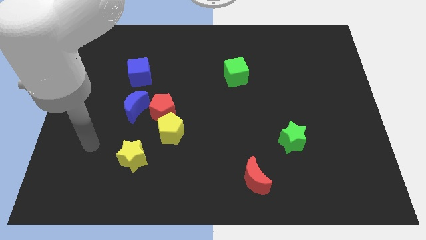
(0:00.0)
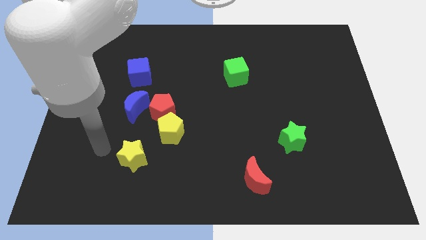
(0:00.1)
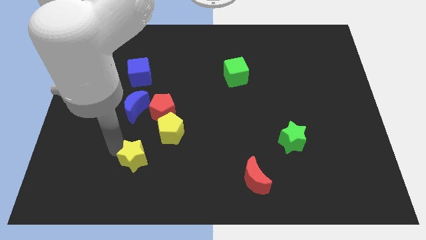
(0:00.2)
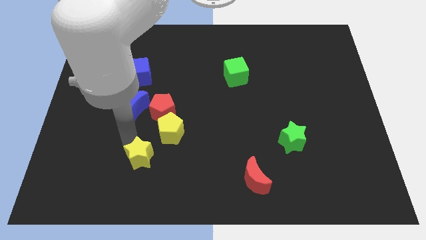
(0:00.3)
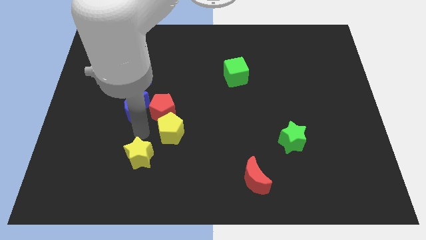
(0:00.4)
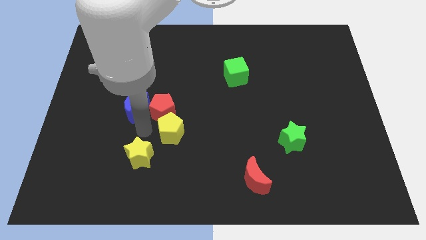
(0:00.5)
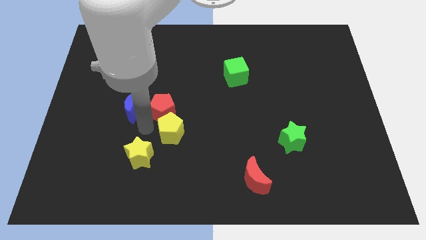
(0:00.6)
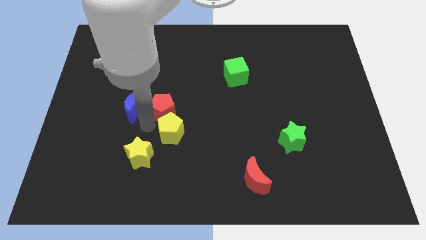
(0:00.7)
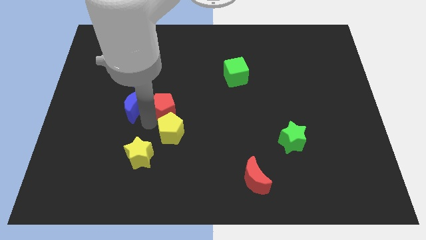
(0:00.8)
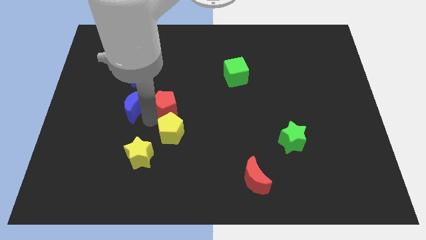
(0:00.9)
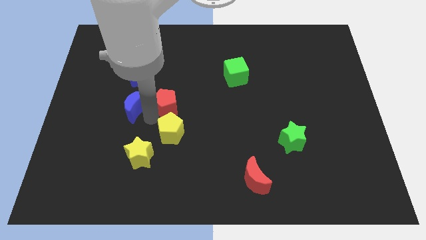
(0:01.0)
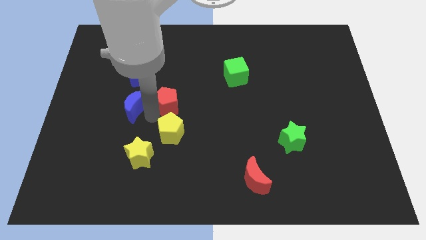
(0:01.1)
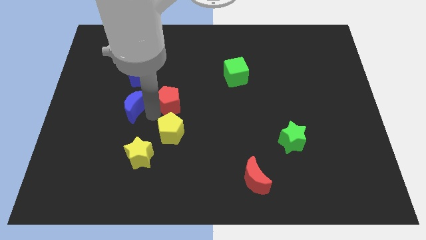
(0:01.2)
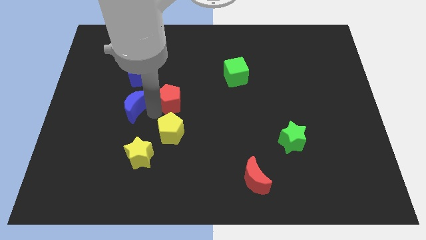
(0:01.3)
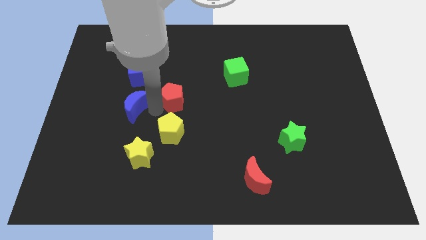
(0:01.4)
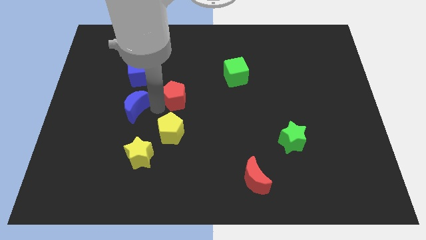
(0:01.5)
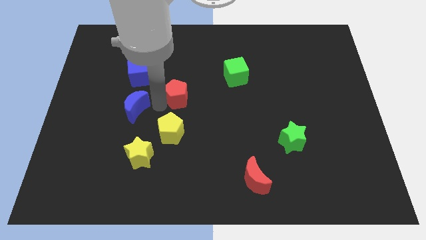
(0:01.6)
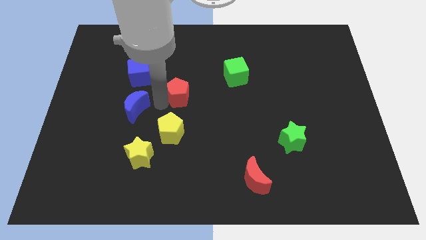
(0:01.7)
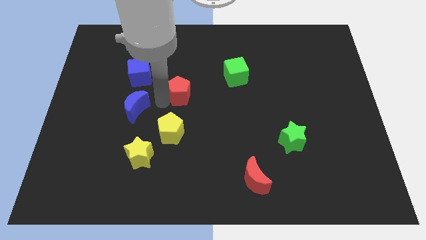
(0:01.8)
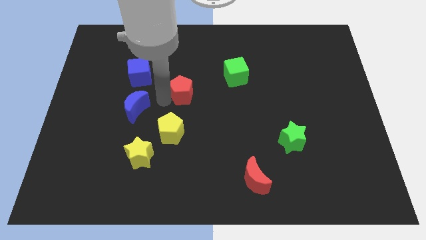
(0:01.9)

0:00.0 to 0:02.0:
move the red pentagon away from the yellow pentagon and blue moon

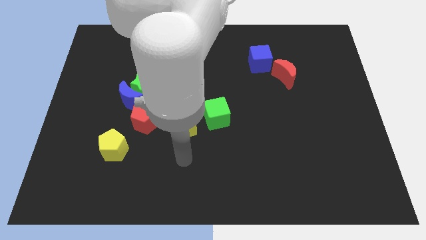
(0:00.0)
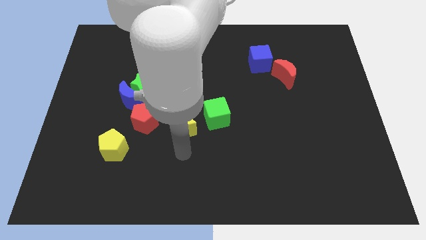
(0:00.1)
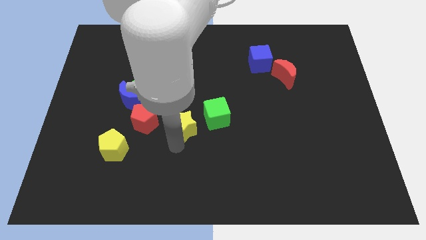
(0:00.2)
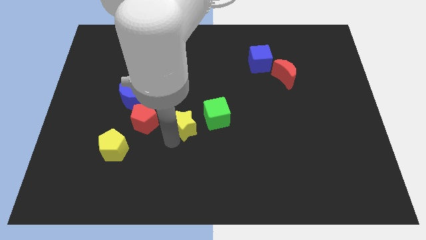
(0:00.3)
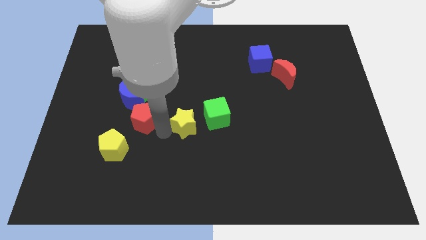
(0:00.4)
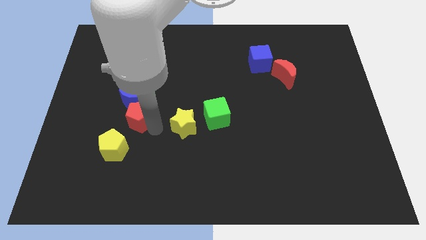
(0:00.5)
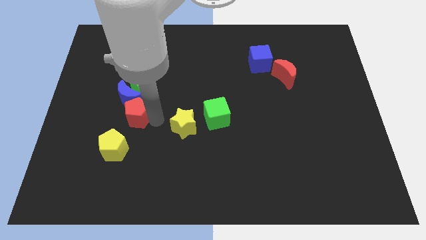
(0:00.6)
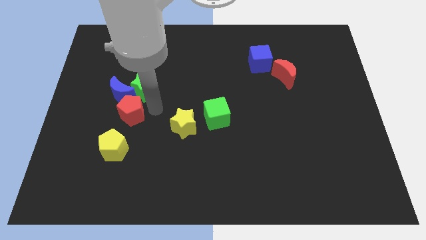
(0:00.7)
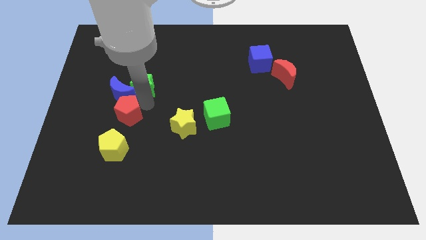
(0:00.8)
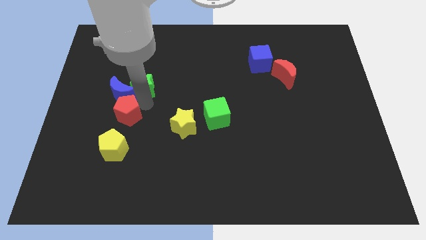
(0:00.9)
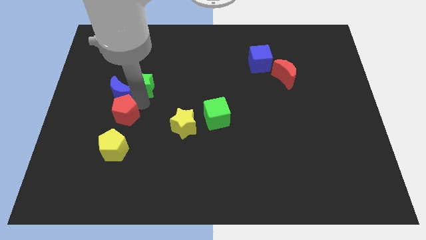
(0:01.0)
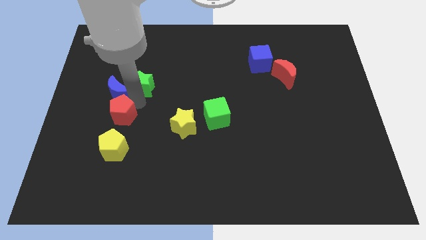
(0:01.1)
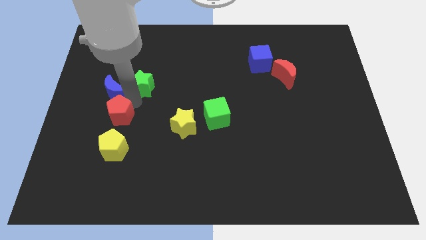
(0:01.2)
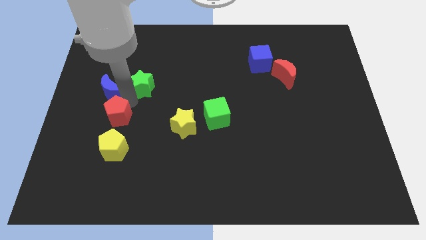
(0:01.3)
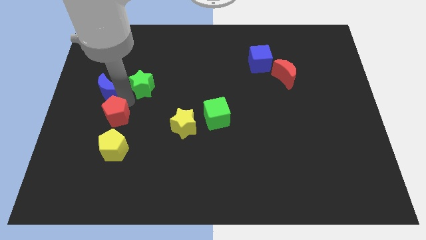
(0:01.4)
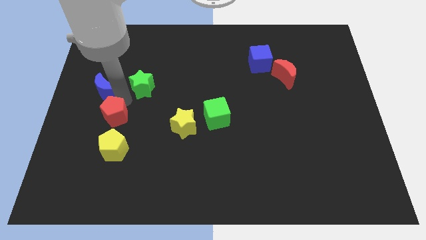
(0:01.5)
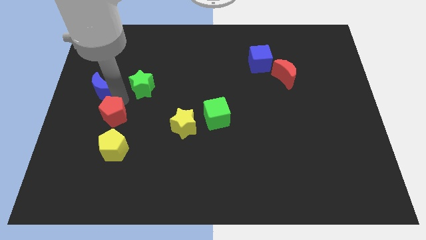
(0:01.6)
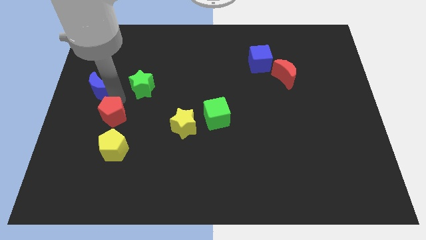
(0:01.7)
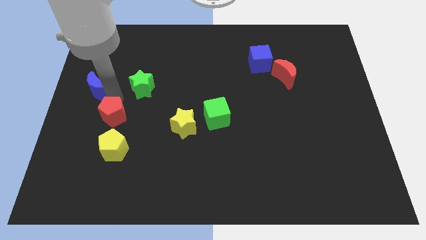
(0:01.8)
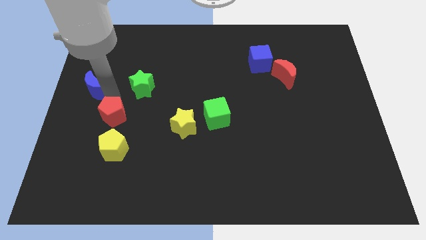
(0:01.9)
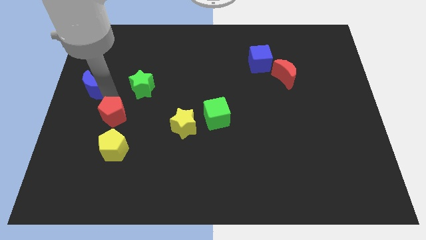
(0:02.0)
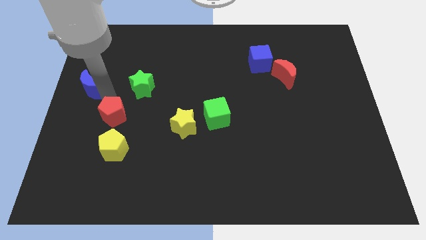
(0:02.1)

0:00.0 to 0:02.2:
move the blue moon away from the green star and red pentagon

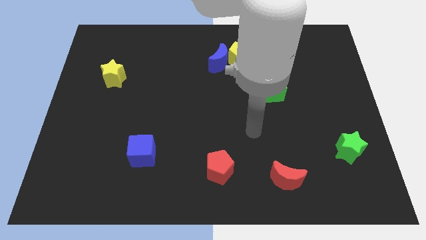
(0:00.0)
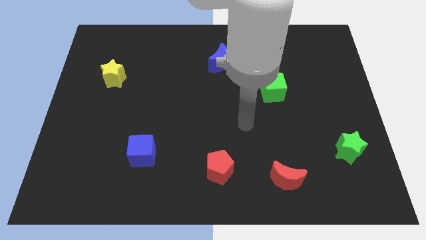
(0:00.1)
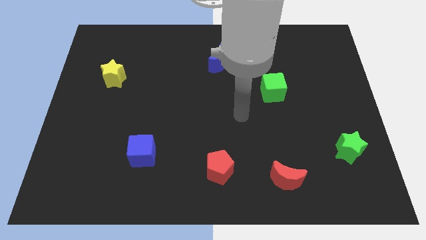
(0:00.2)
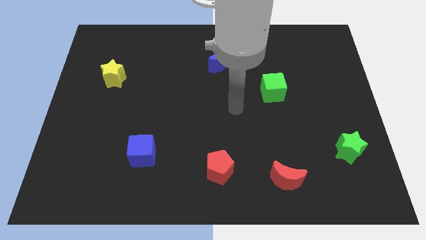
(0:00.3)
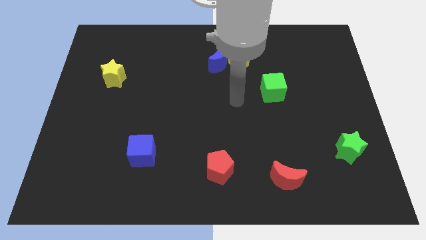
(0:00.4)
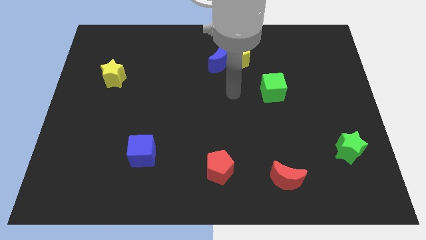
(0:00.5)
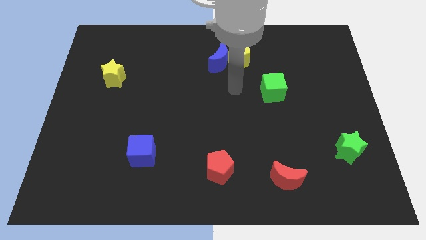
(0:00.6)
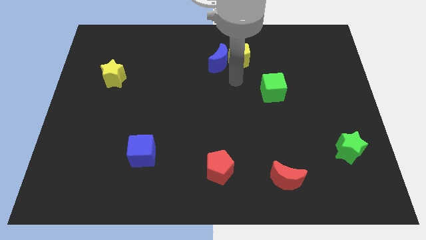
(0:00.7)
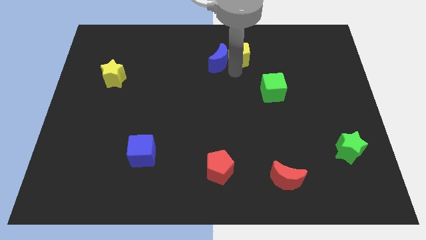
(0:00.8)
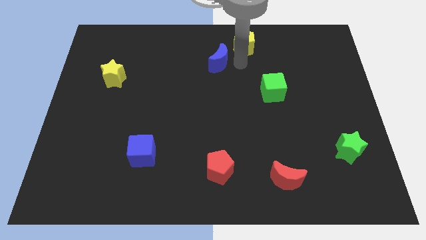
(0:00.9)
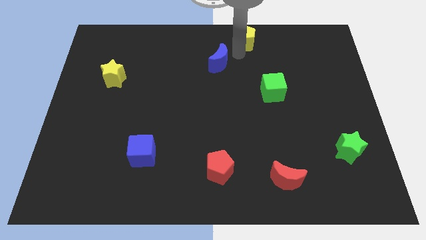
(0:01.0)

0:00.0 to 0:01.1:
move the blue moon away from the yellow pentagon

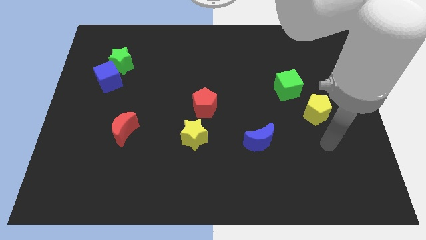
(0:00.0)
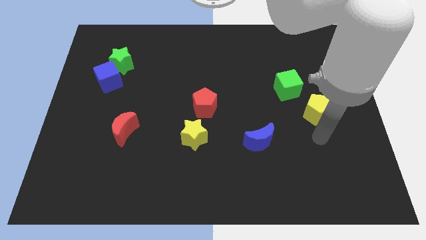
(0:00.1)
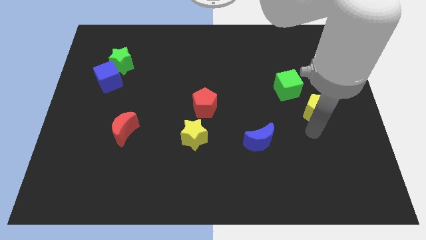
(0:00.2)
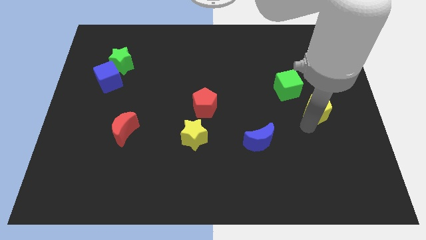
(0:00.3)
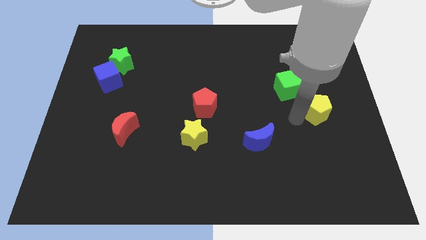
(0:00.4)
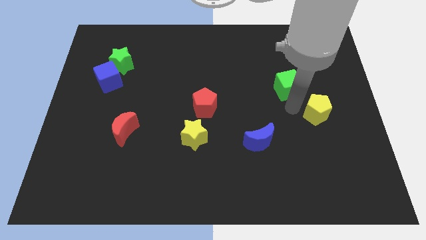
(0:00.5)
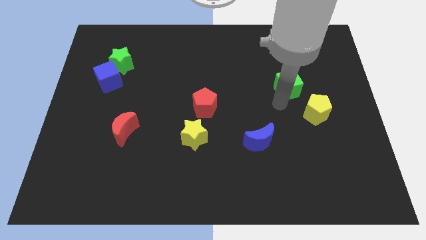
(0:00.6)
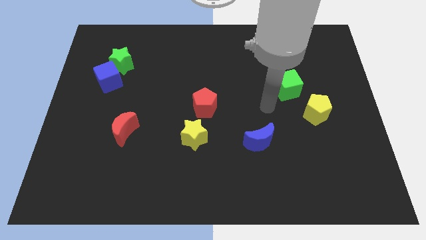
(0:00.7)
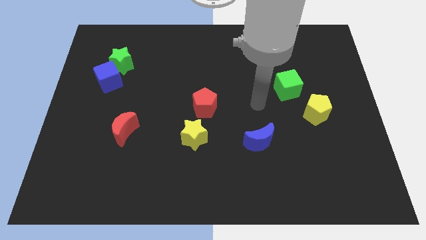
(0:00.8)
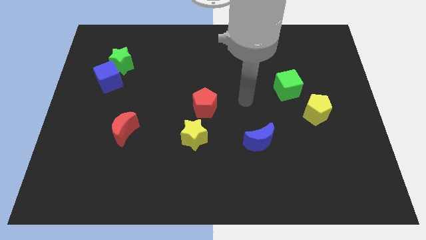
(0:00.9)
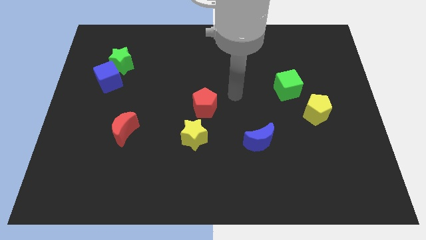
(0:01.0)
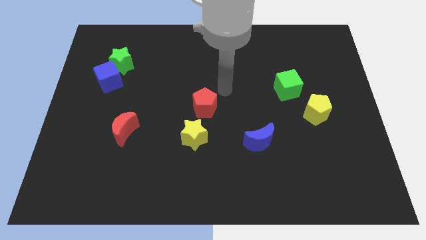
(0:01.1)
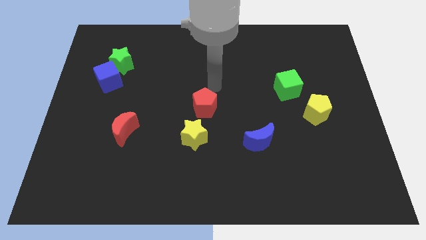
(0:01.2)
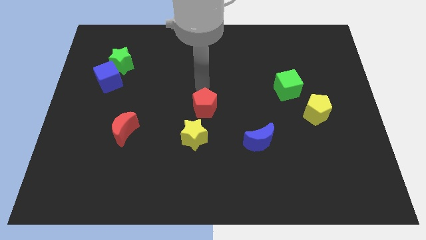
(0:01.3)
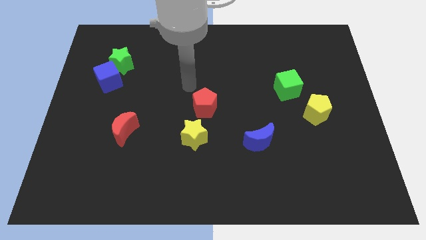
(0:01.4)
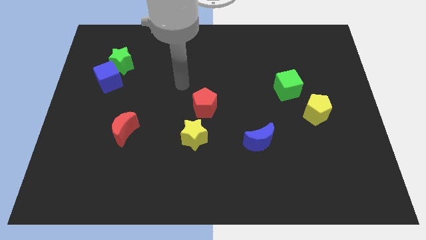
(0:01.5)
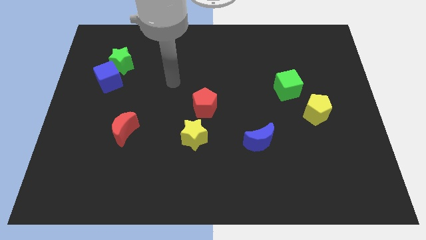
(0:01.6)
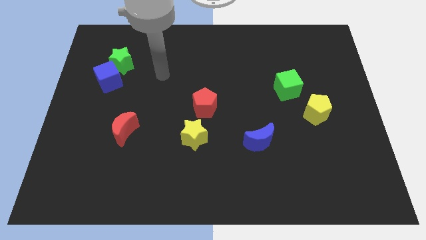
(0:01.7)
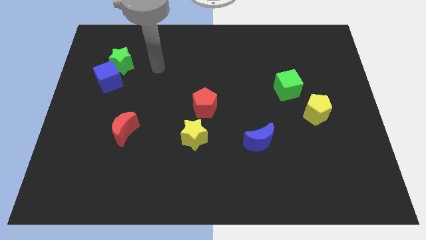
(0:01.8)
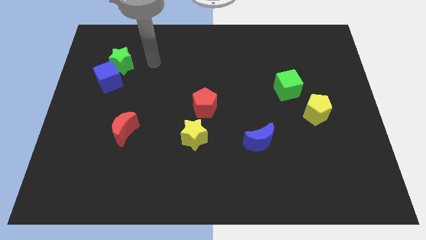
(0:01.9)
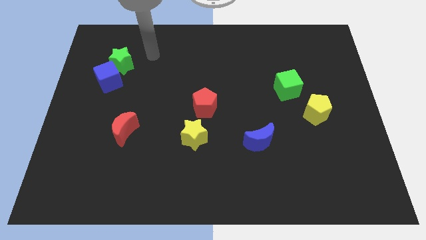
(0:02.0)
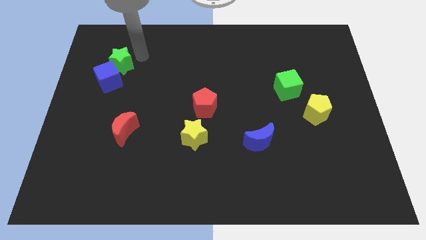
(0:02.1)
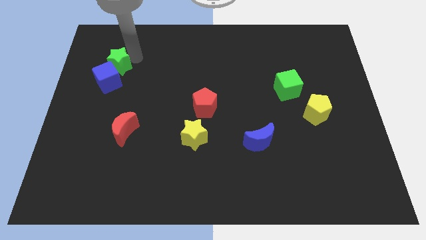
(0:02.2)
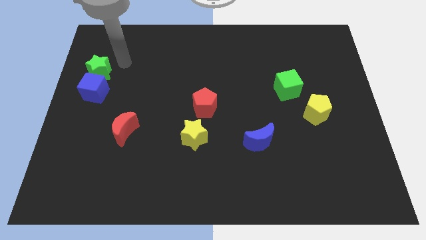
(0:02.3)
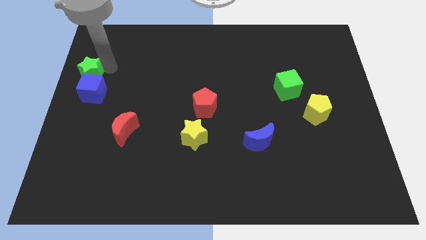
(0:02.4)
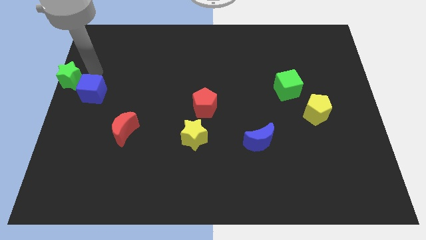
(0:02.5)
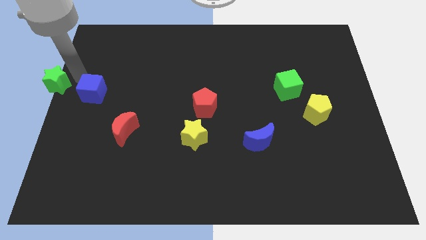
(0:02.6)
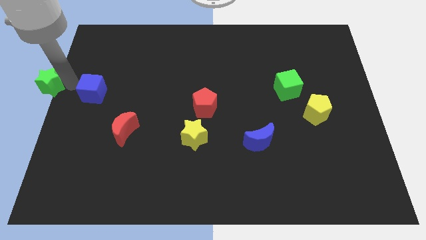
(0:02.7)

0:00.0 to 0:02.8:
move the blue cube away from the green star

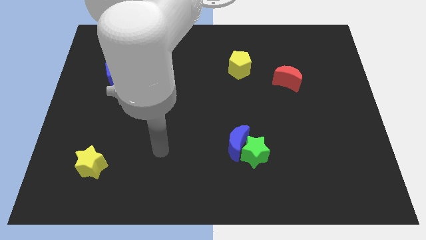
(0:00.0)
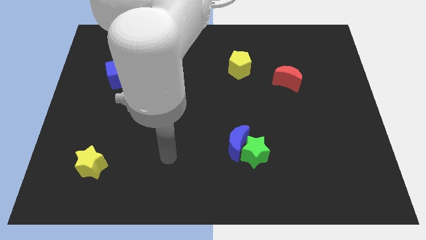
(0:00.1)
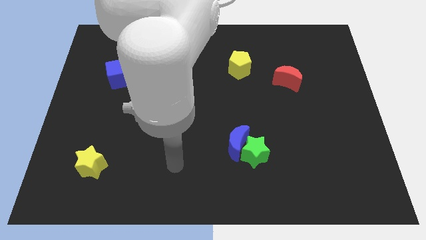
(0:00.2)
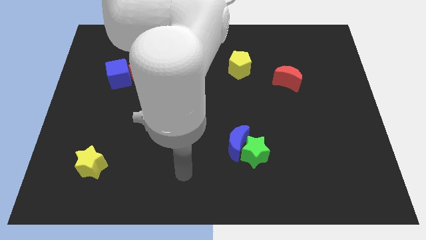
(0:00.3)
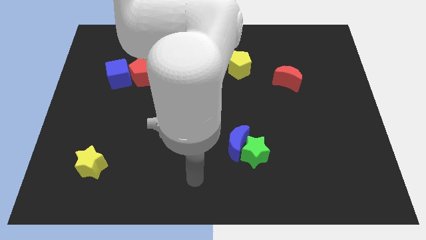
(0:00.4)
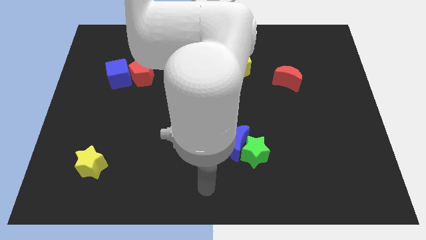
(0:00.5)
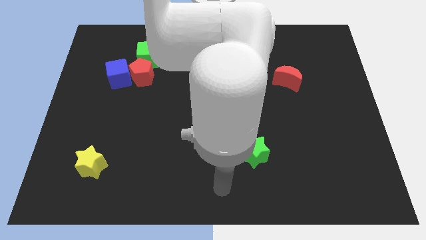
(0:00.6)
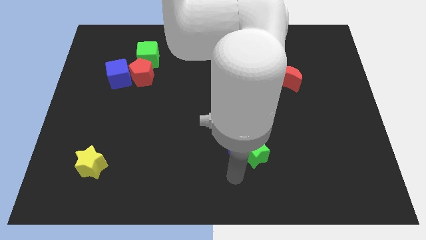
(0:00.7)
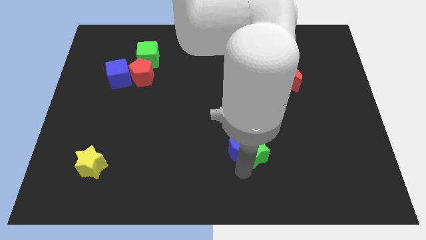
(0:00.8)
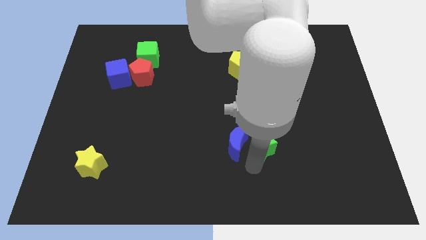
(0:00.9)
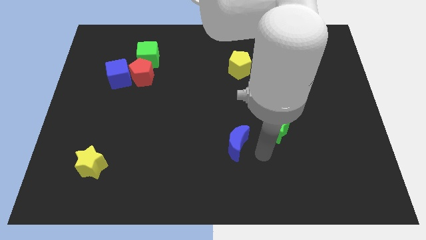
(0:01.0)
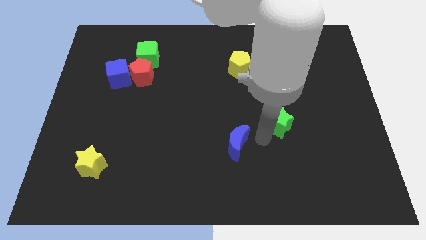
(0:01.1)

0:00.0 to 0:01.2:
move the blue moon away from the green star

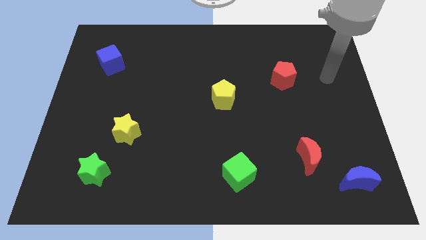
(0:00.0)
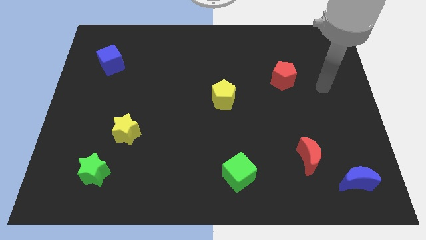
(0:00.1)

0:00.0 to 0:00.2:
pull the red moon apart from the blue moon
